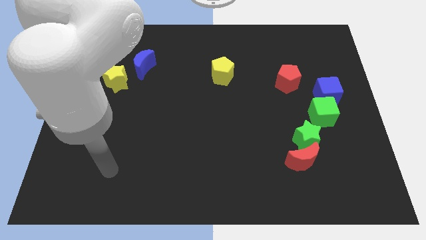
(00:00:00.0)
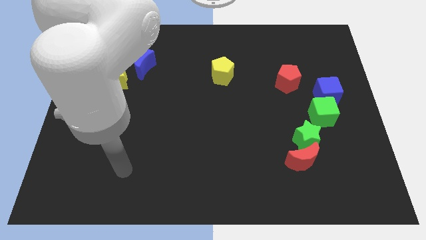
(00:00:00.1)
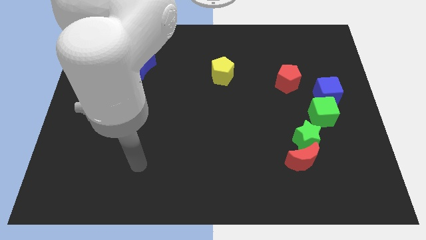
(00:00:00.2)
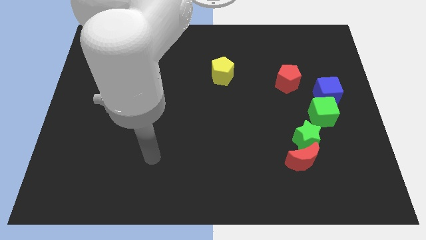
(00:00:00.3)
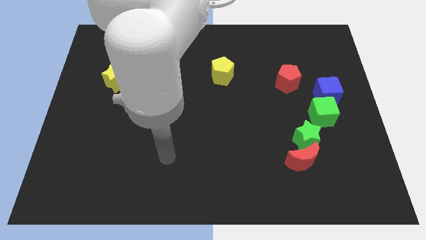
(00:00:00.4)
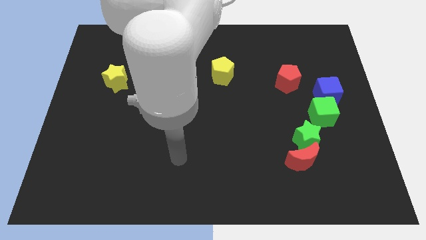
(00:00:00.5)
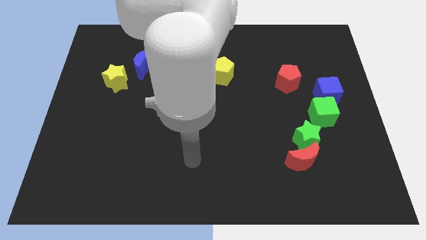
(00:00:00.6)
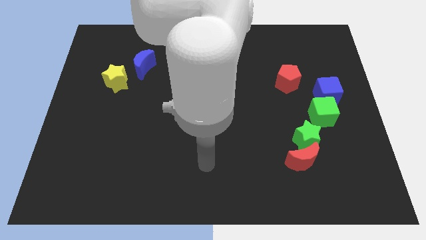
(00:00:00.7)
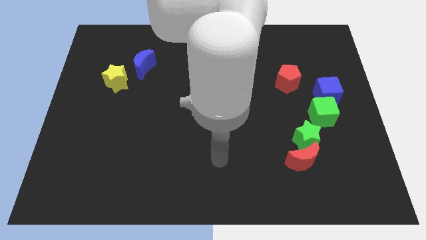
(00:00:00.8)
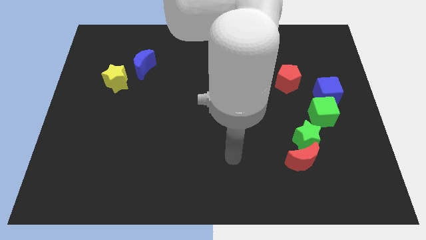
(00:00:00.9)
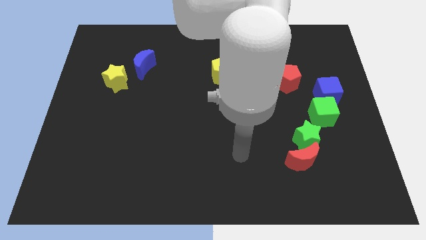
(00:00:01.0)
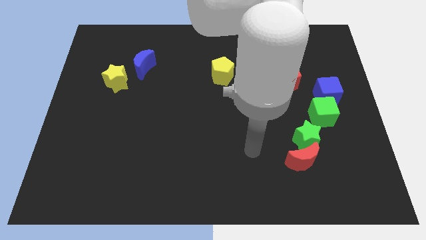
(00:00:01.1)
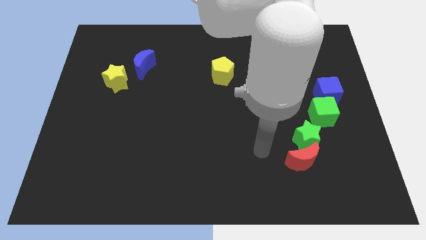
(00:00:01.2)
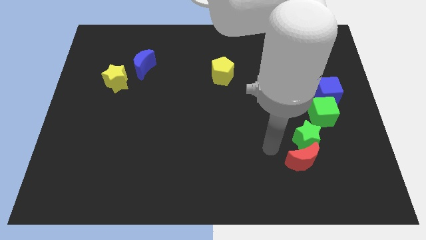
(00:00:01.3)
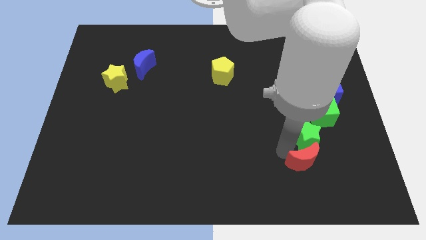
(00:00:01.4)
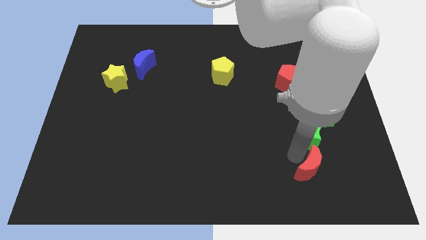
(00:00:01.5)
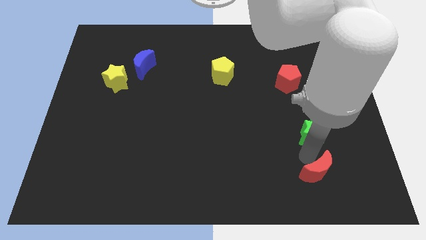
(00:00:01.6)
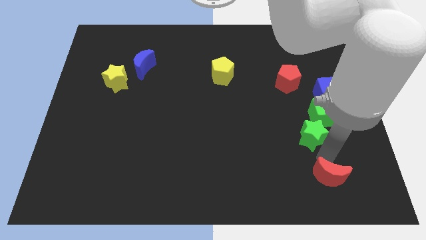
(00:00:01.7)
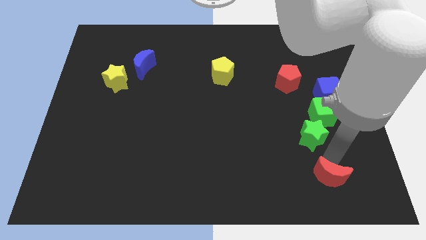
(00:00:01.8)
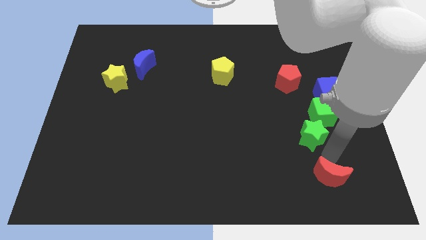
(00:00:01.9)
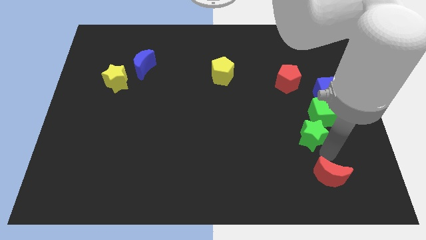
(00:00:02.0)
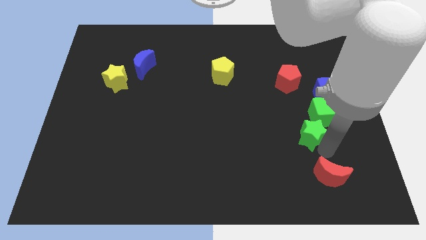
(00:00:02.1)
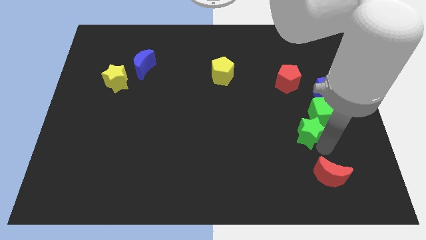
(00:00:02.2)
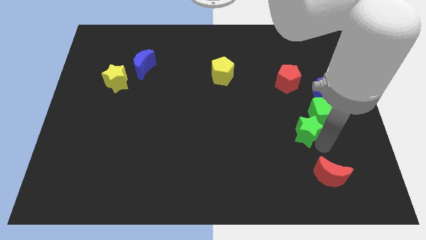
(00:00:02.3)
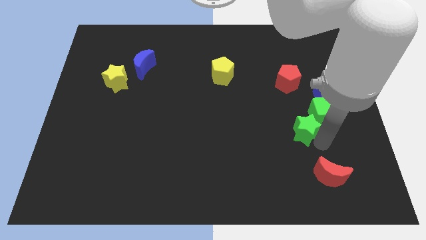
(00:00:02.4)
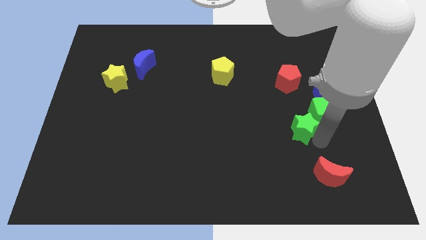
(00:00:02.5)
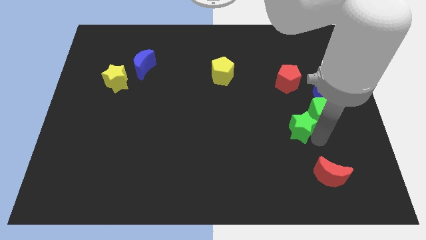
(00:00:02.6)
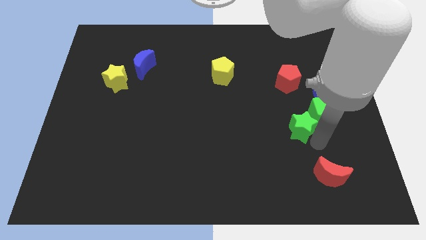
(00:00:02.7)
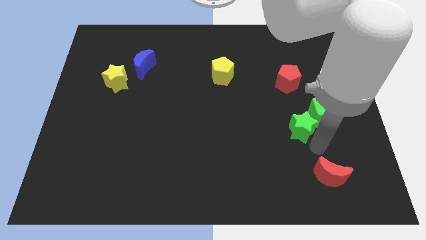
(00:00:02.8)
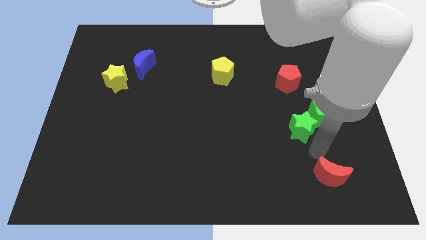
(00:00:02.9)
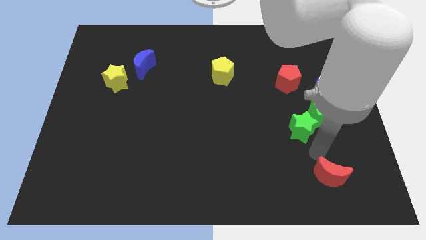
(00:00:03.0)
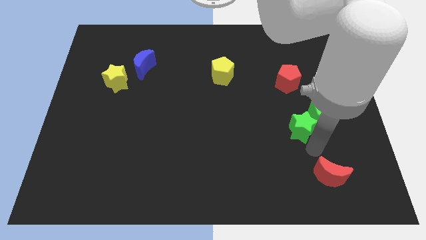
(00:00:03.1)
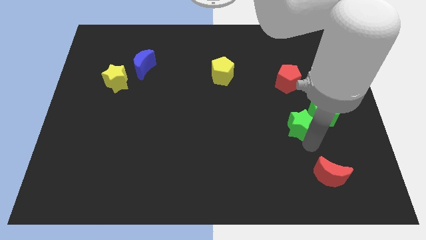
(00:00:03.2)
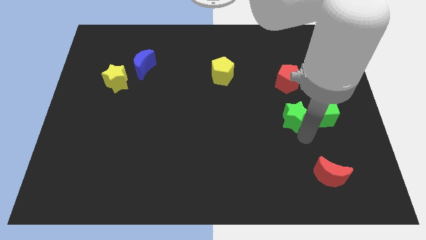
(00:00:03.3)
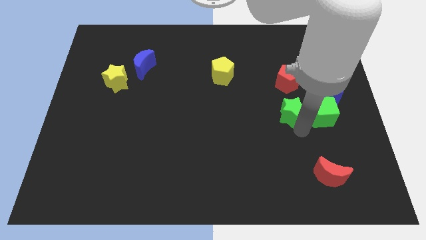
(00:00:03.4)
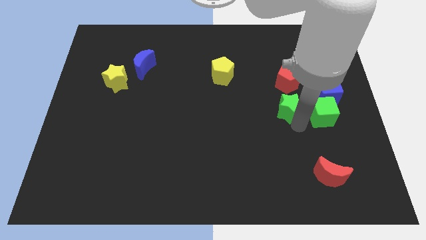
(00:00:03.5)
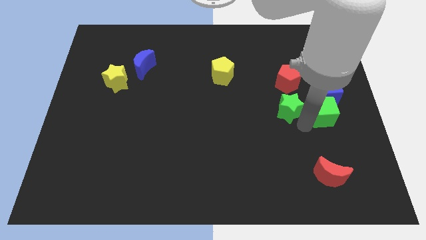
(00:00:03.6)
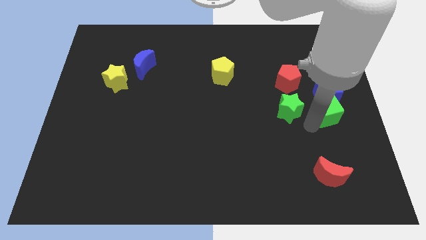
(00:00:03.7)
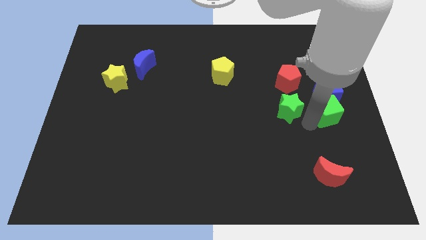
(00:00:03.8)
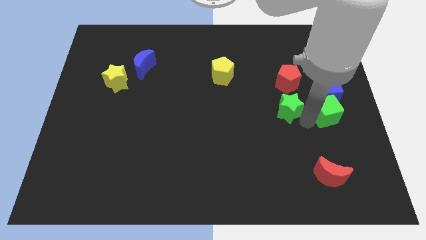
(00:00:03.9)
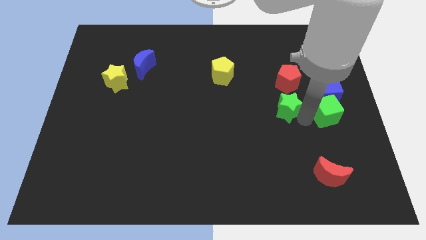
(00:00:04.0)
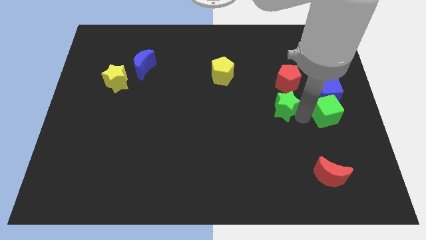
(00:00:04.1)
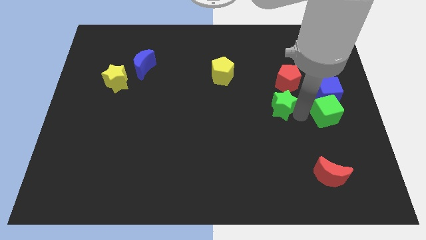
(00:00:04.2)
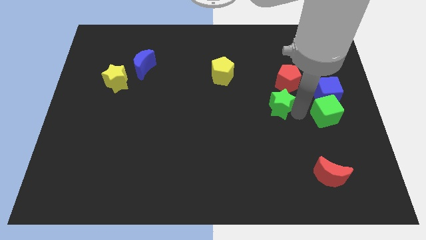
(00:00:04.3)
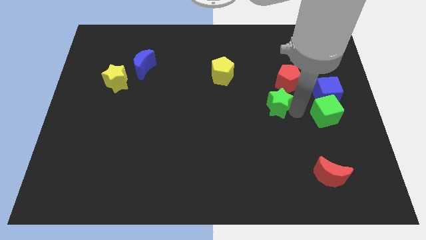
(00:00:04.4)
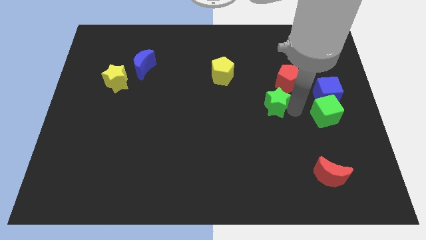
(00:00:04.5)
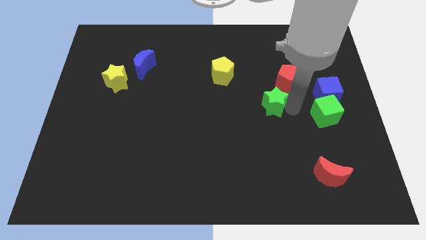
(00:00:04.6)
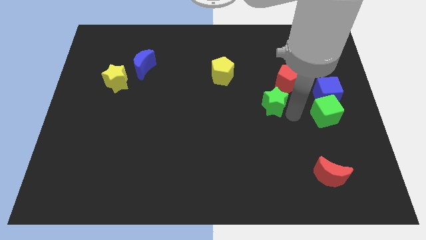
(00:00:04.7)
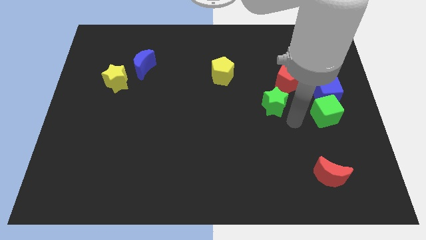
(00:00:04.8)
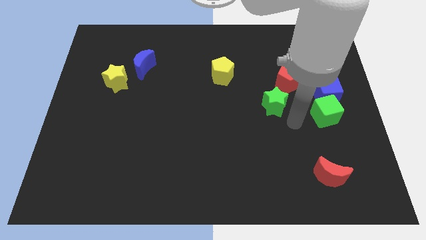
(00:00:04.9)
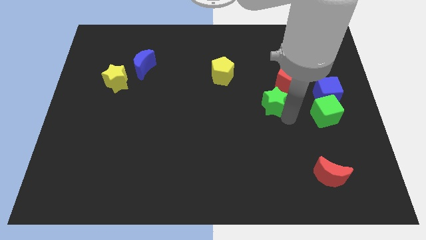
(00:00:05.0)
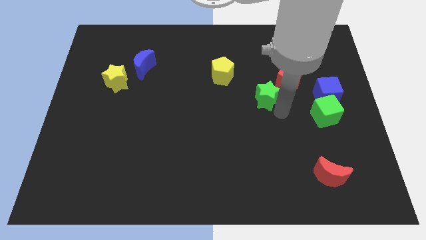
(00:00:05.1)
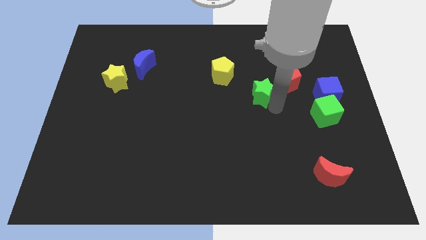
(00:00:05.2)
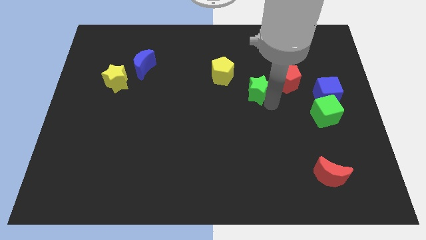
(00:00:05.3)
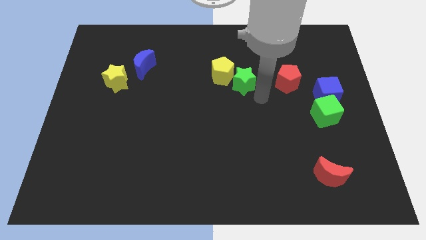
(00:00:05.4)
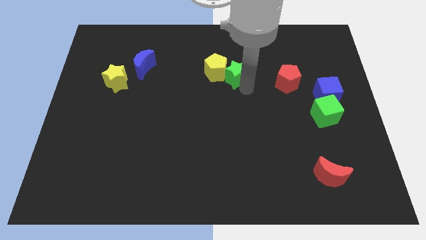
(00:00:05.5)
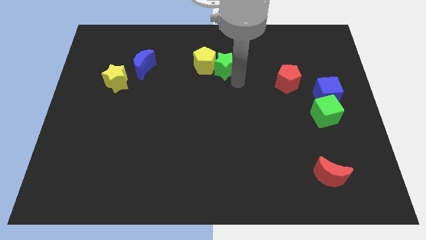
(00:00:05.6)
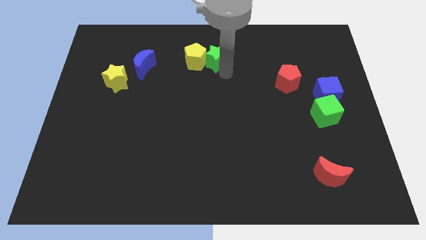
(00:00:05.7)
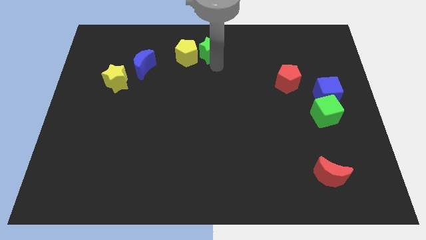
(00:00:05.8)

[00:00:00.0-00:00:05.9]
slide the green star to the top

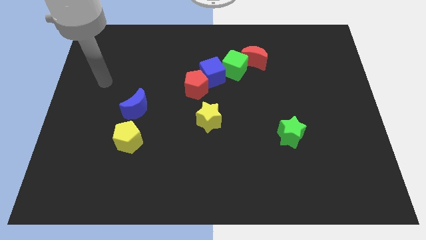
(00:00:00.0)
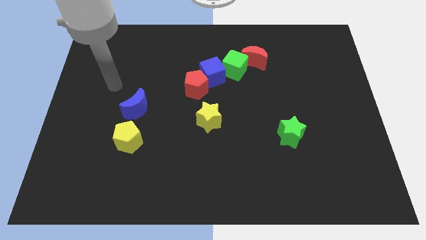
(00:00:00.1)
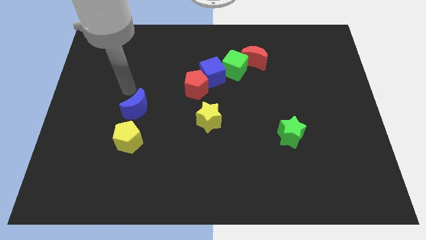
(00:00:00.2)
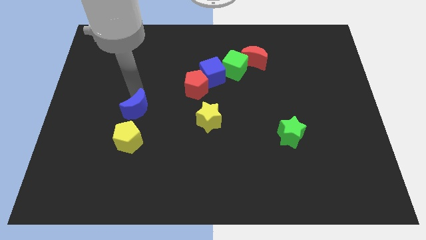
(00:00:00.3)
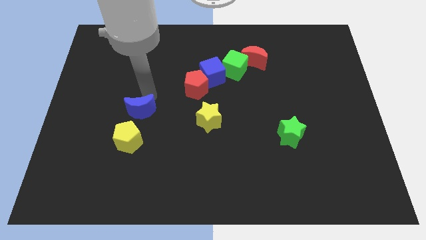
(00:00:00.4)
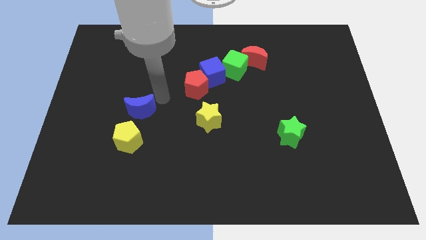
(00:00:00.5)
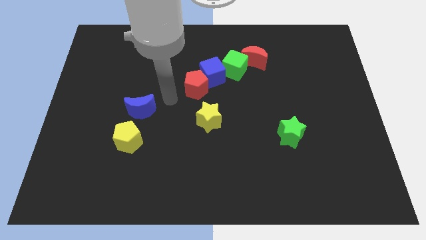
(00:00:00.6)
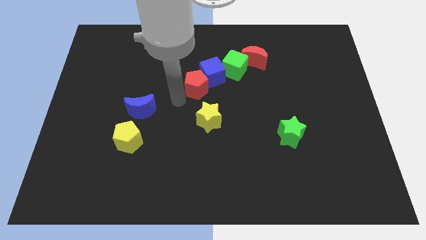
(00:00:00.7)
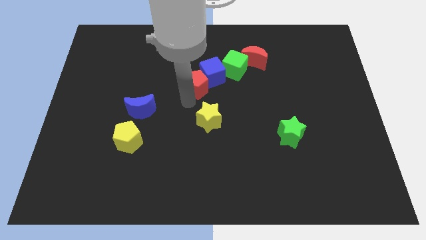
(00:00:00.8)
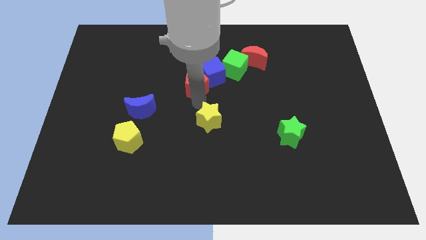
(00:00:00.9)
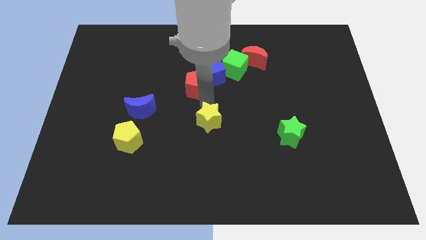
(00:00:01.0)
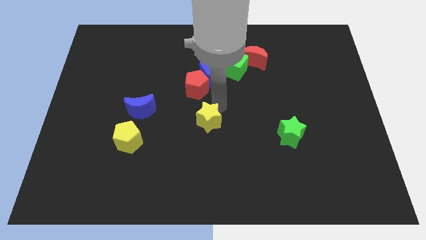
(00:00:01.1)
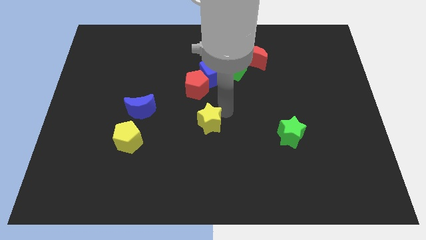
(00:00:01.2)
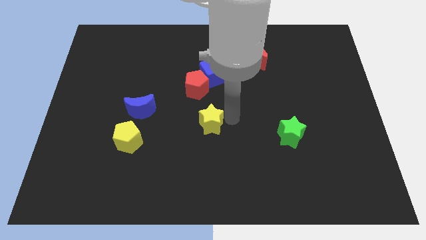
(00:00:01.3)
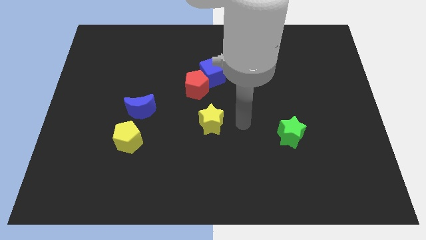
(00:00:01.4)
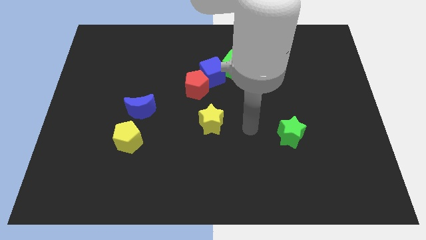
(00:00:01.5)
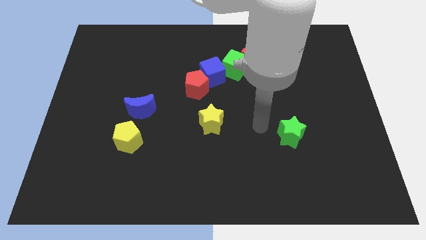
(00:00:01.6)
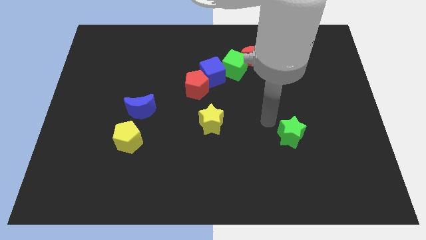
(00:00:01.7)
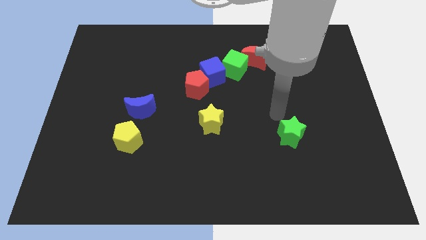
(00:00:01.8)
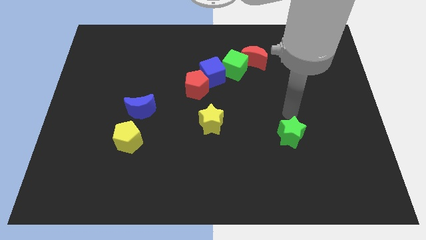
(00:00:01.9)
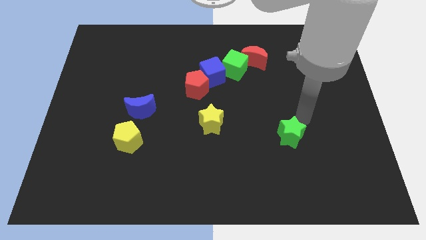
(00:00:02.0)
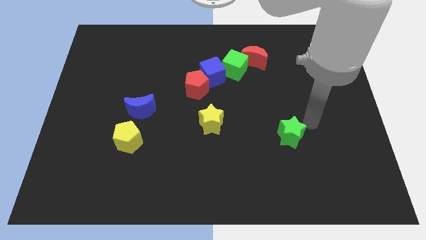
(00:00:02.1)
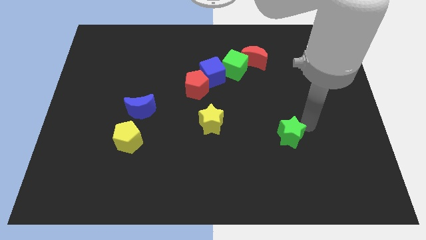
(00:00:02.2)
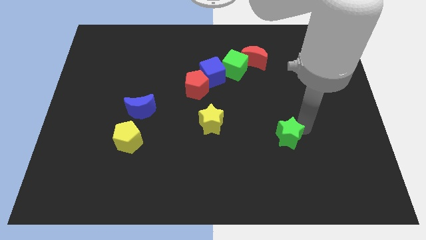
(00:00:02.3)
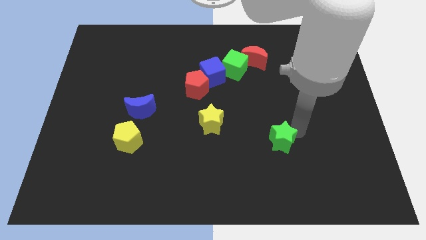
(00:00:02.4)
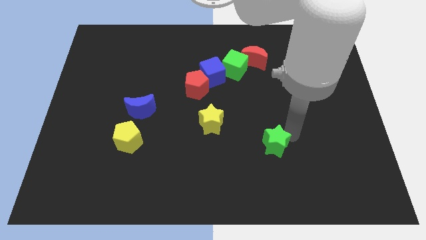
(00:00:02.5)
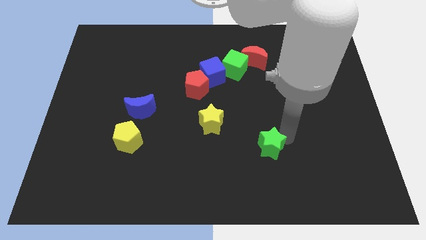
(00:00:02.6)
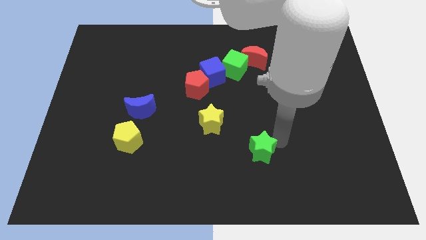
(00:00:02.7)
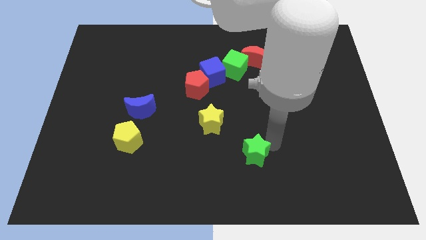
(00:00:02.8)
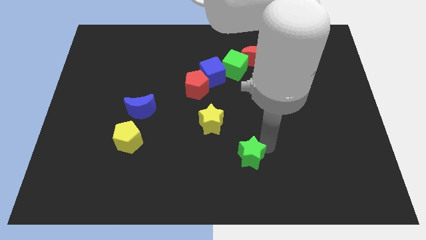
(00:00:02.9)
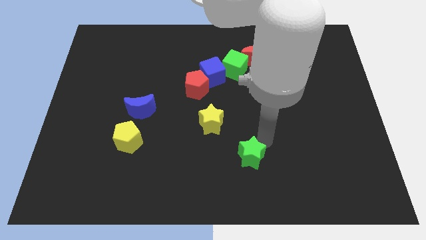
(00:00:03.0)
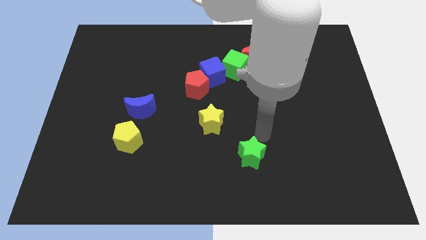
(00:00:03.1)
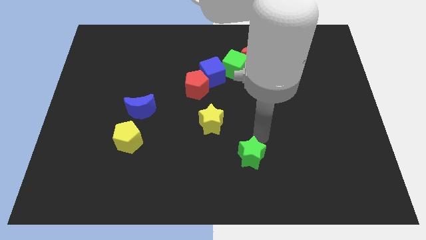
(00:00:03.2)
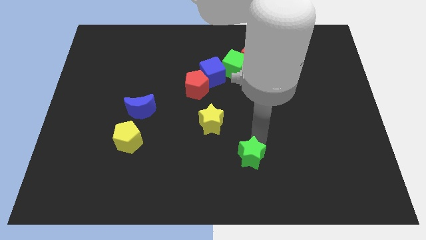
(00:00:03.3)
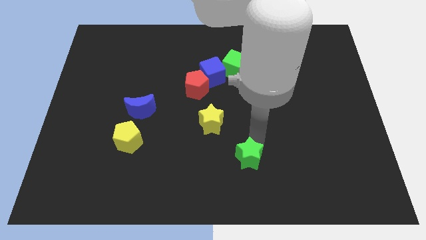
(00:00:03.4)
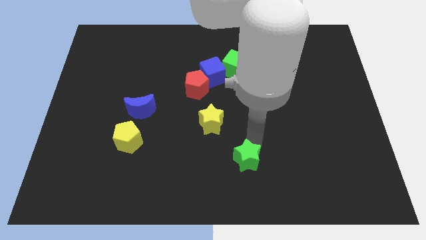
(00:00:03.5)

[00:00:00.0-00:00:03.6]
push the green star to the bottom
